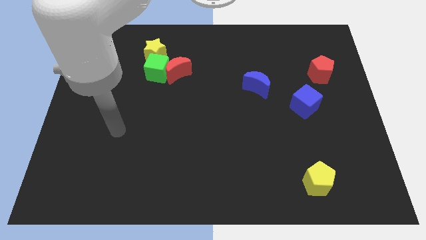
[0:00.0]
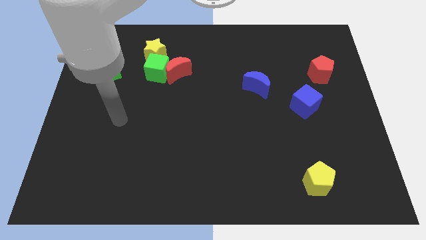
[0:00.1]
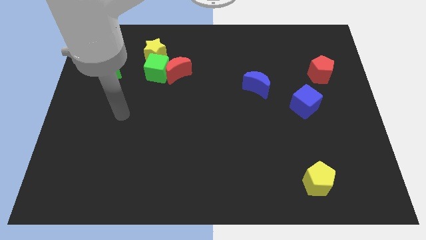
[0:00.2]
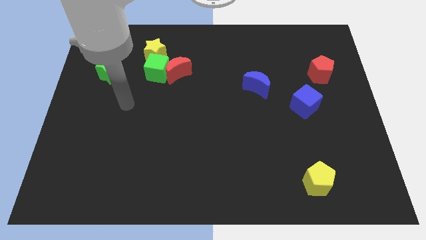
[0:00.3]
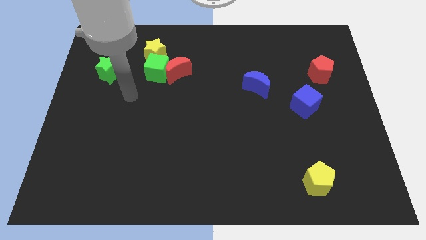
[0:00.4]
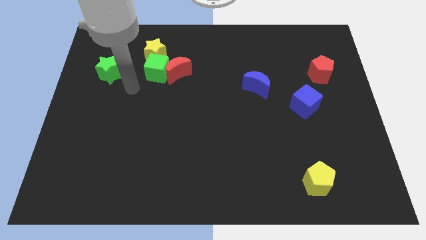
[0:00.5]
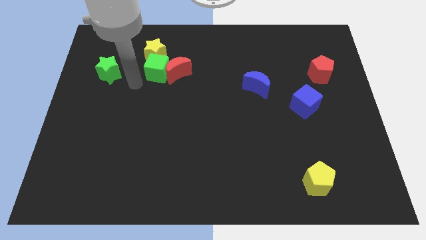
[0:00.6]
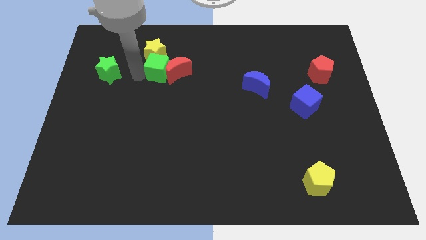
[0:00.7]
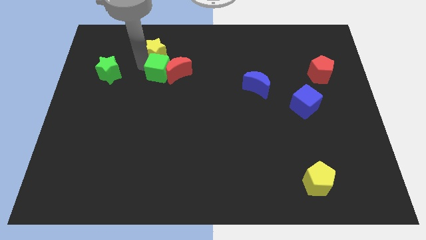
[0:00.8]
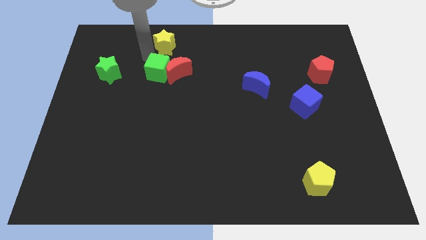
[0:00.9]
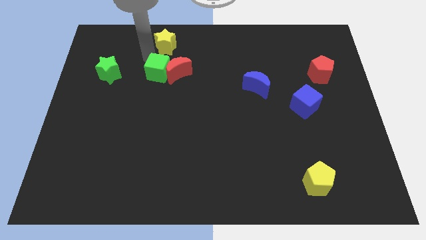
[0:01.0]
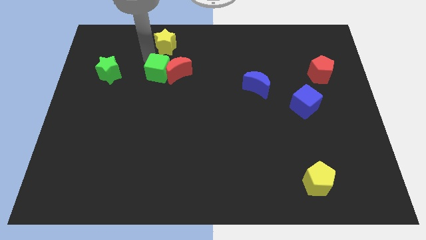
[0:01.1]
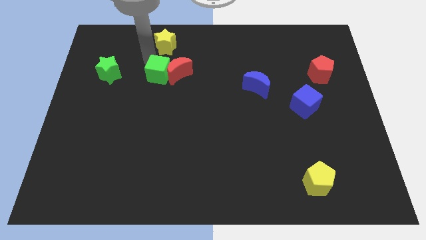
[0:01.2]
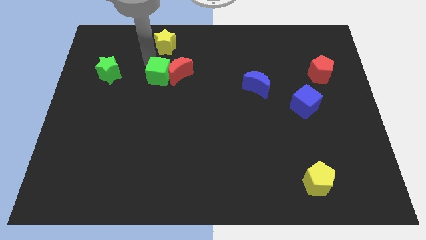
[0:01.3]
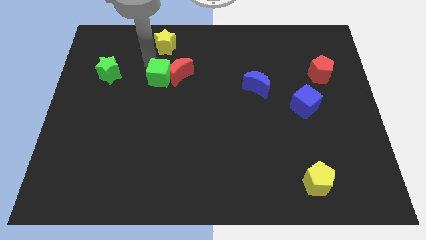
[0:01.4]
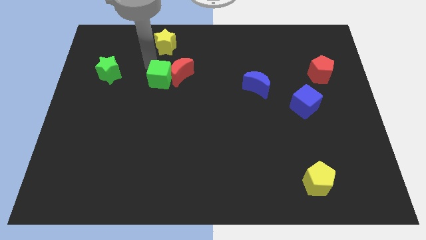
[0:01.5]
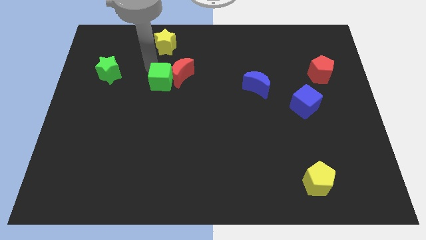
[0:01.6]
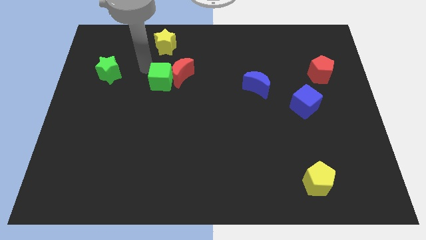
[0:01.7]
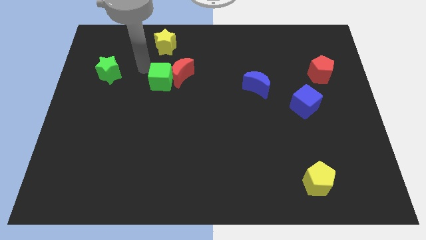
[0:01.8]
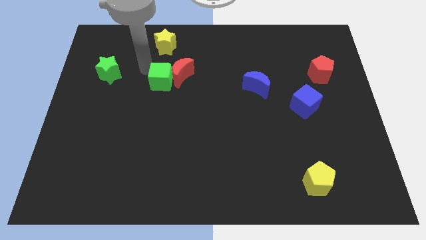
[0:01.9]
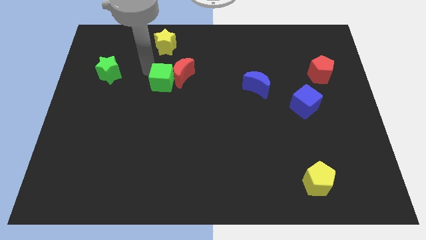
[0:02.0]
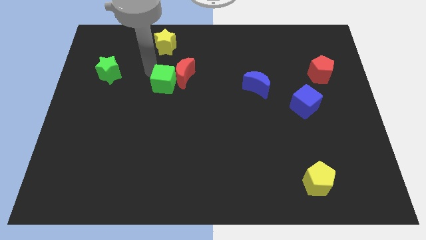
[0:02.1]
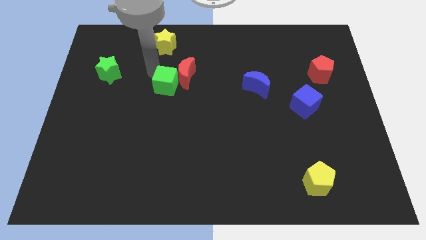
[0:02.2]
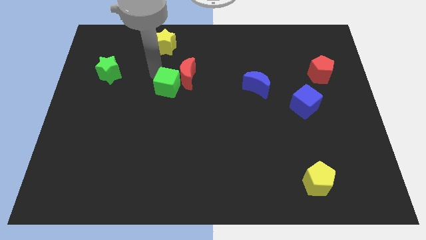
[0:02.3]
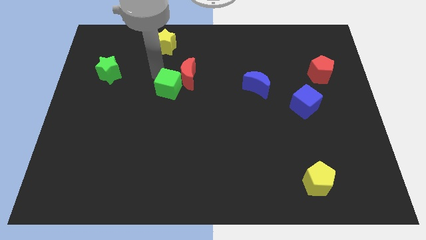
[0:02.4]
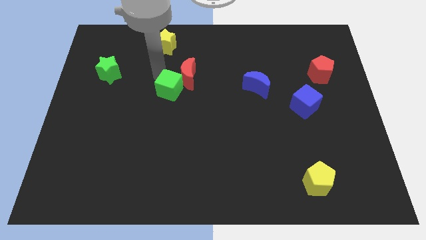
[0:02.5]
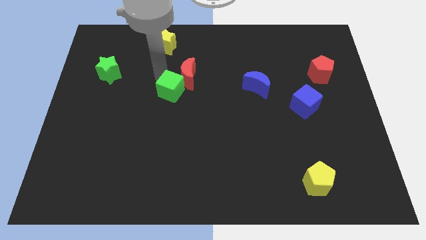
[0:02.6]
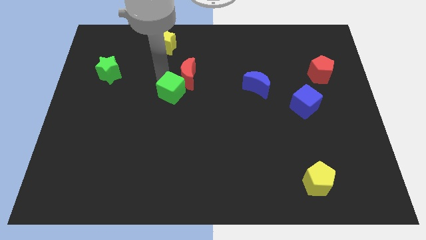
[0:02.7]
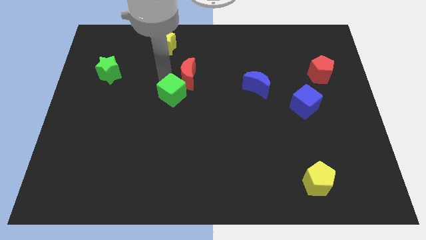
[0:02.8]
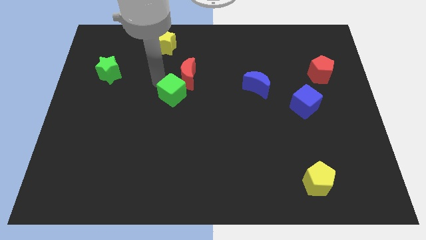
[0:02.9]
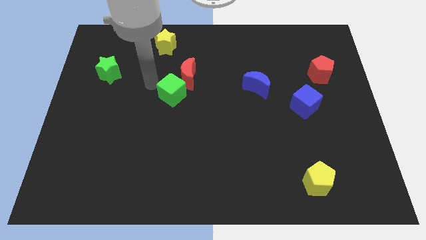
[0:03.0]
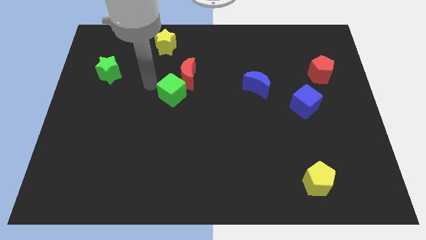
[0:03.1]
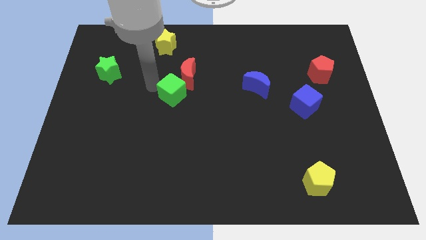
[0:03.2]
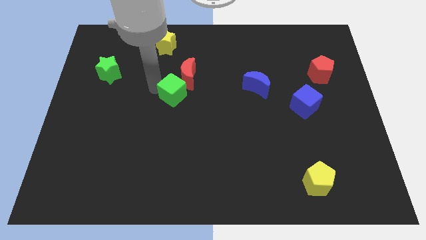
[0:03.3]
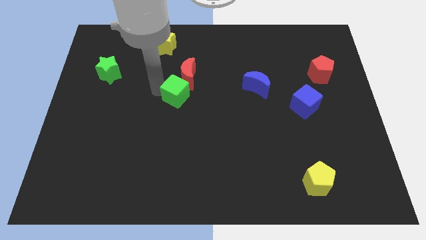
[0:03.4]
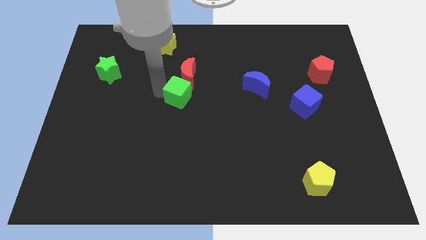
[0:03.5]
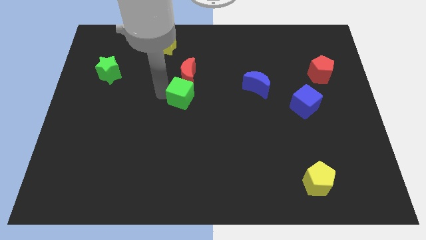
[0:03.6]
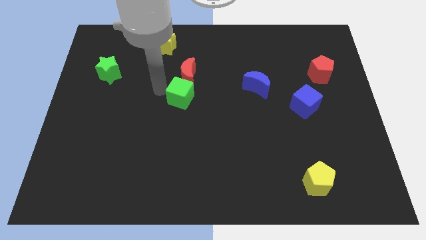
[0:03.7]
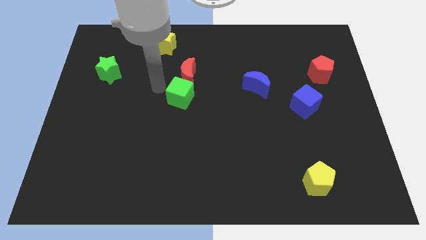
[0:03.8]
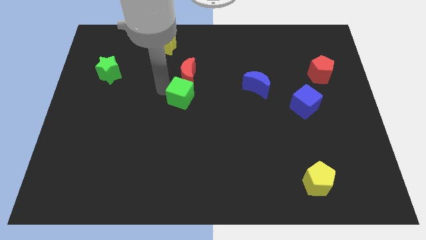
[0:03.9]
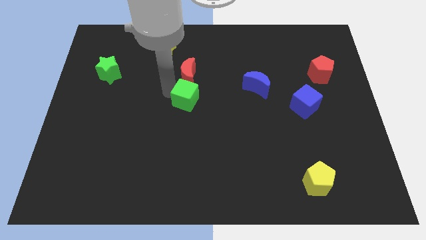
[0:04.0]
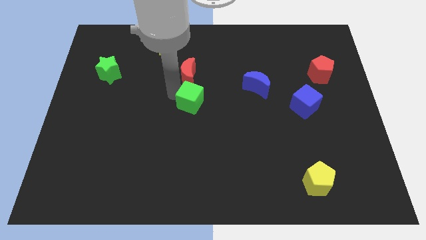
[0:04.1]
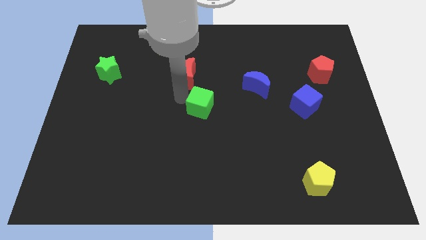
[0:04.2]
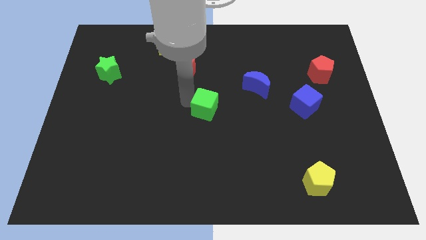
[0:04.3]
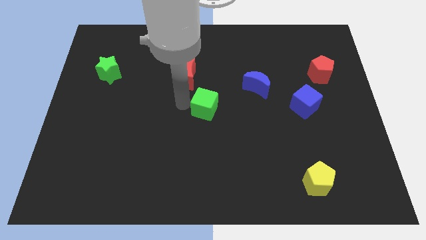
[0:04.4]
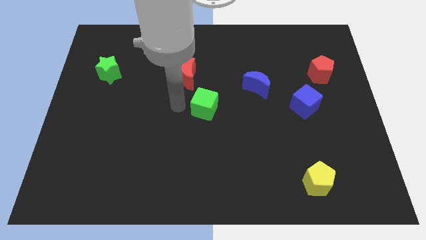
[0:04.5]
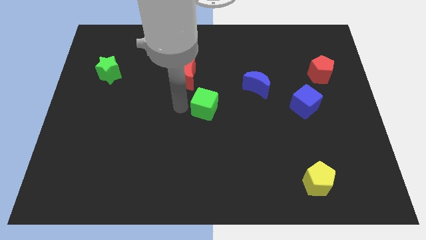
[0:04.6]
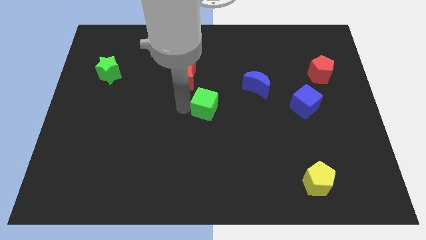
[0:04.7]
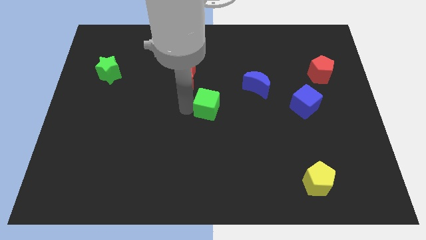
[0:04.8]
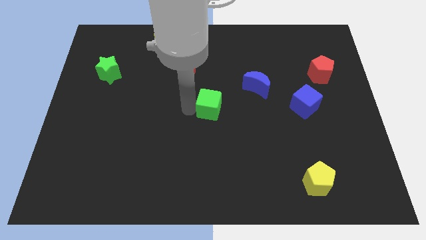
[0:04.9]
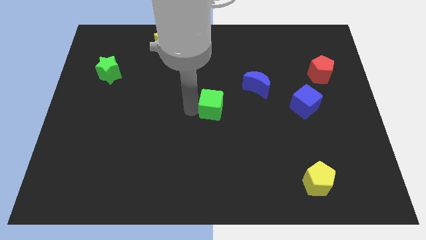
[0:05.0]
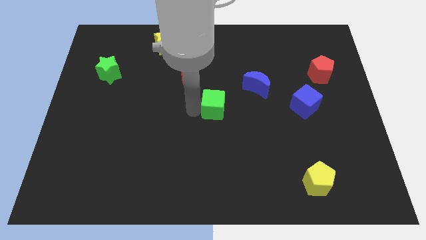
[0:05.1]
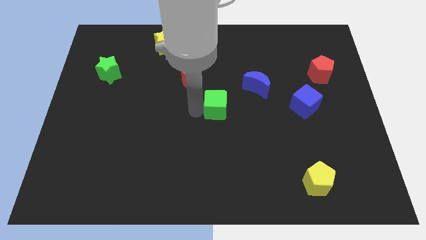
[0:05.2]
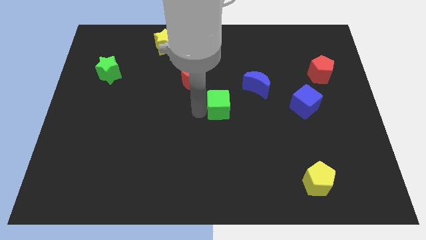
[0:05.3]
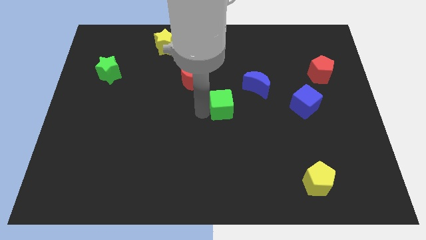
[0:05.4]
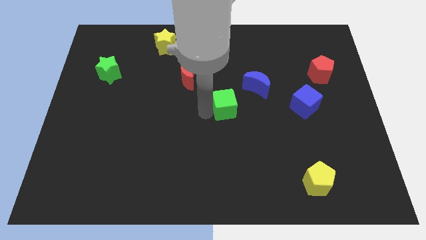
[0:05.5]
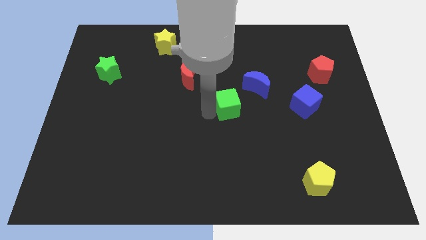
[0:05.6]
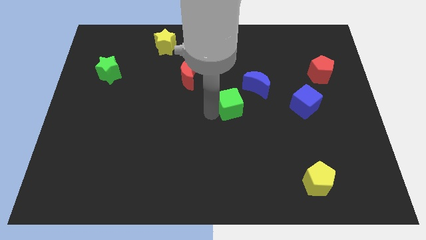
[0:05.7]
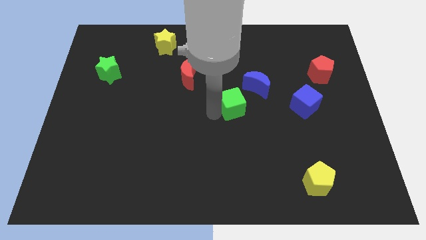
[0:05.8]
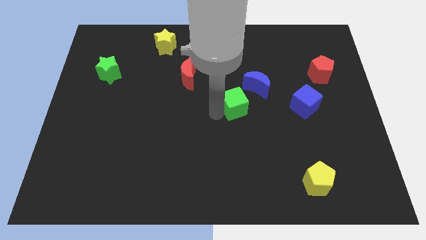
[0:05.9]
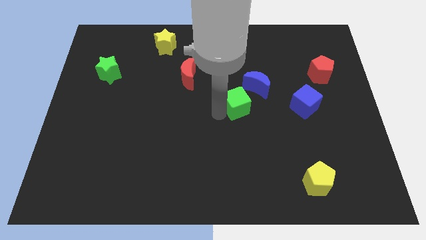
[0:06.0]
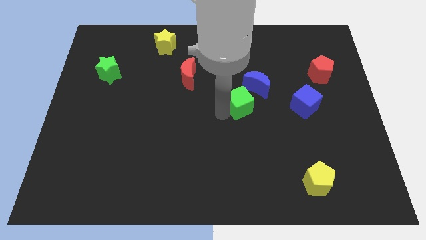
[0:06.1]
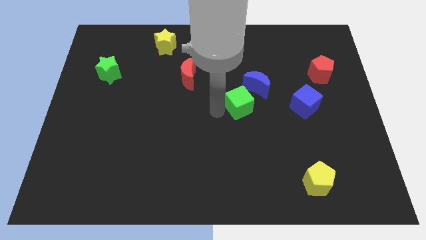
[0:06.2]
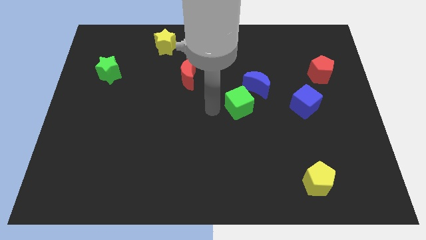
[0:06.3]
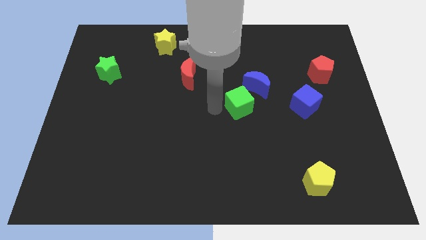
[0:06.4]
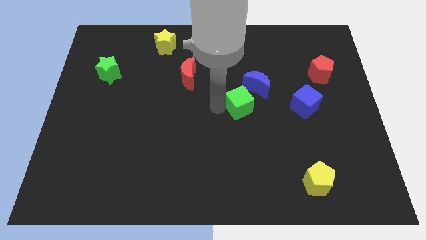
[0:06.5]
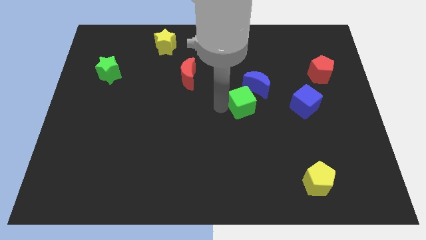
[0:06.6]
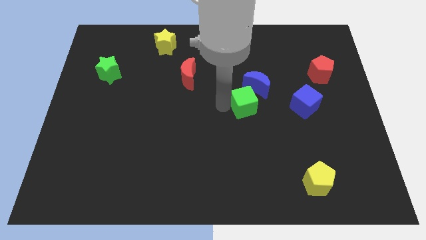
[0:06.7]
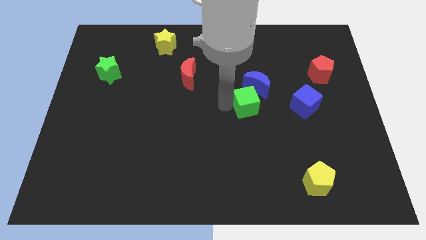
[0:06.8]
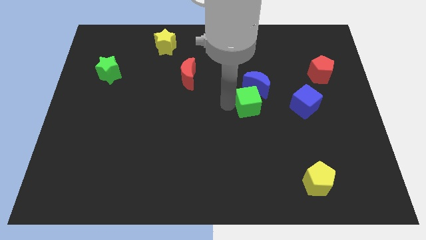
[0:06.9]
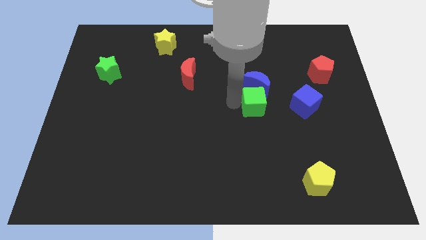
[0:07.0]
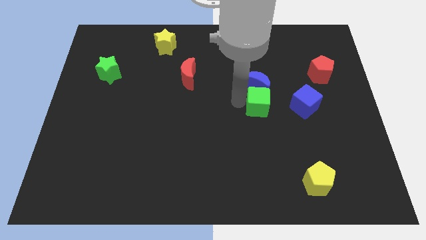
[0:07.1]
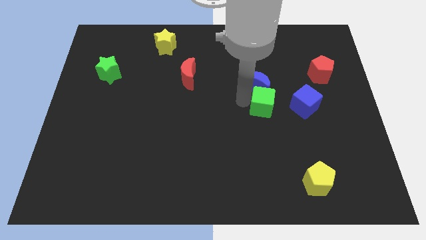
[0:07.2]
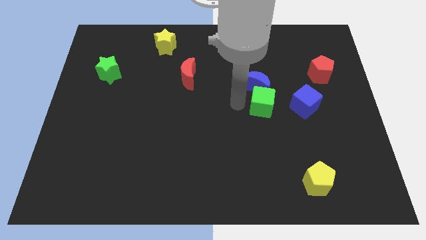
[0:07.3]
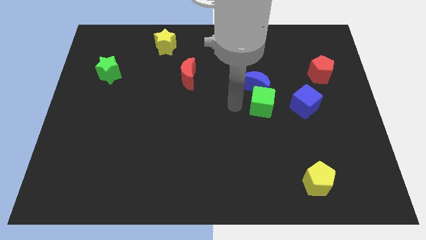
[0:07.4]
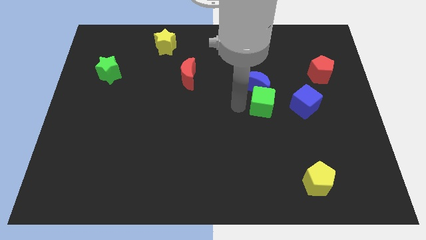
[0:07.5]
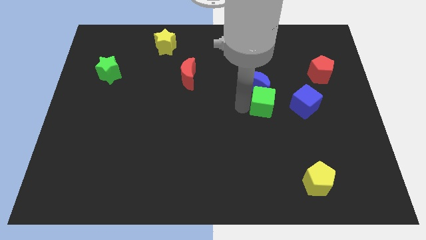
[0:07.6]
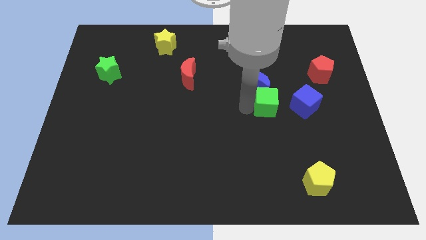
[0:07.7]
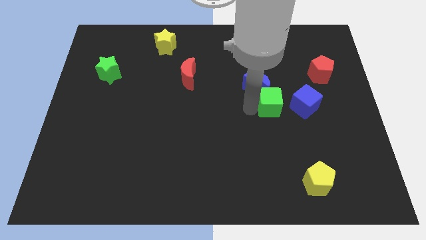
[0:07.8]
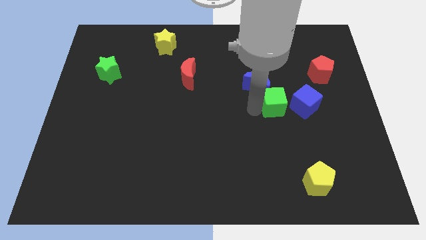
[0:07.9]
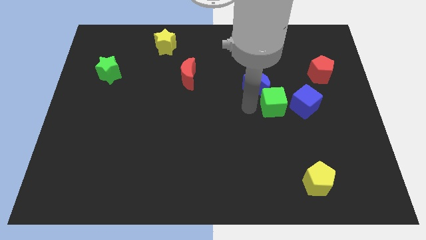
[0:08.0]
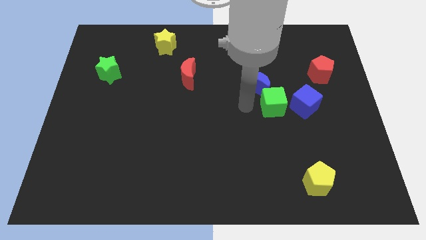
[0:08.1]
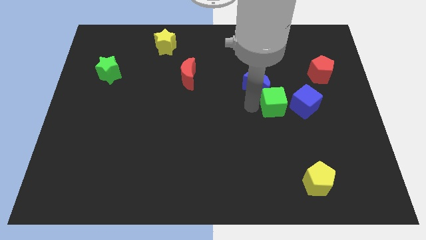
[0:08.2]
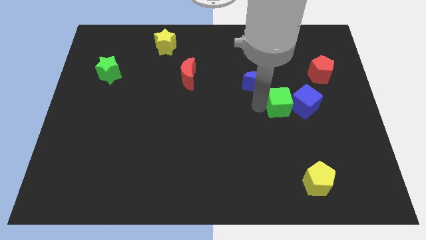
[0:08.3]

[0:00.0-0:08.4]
push the green cube towards the blue cube
